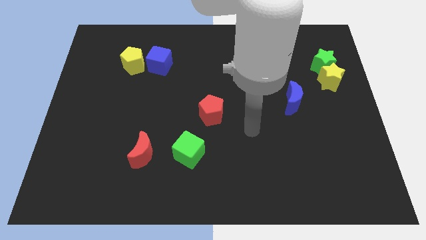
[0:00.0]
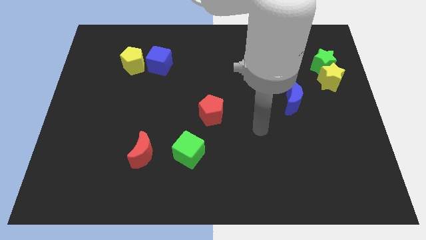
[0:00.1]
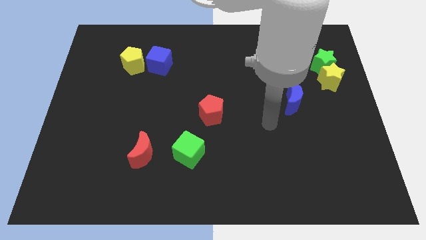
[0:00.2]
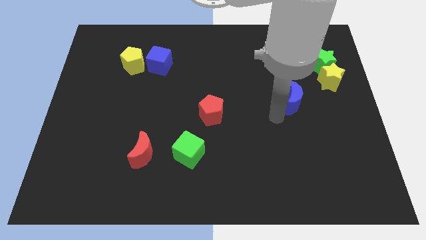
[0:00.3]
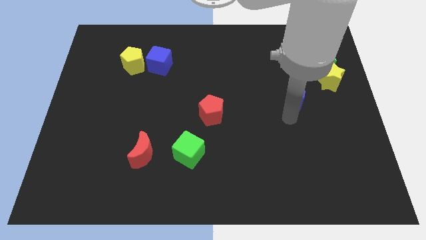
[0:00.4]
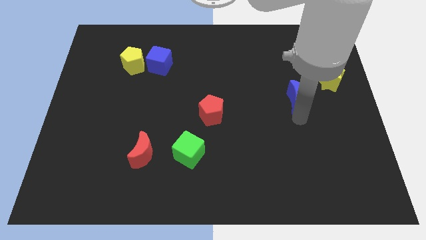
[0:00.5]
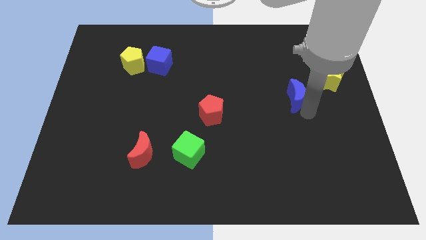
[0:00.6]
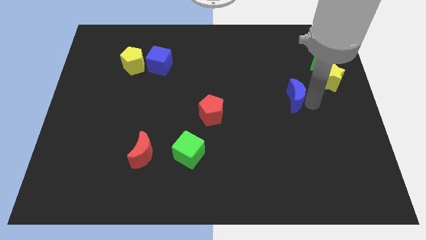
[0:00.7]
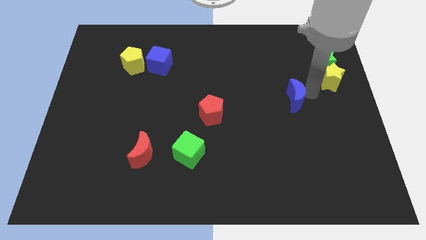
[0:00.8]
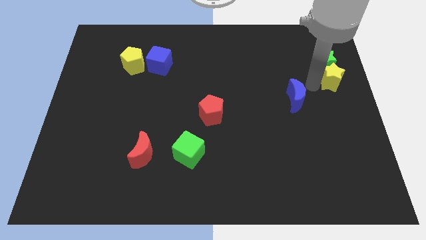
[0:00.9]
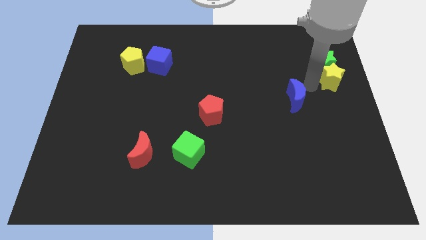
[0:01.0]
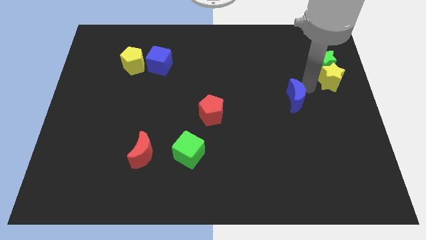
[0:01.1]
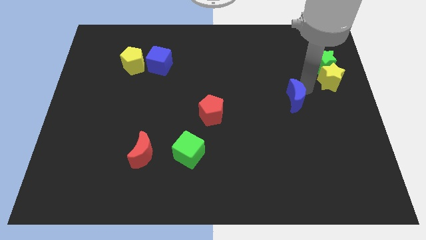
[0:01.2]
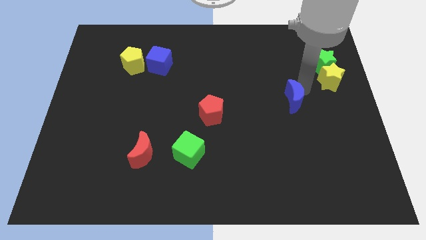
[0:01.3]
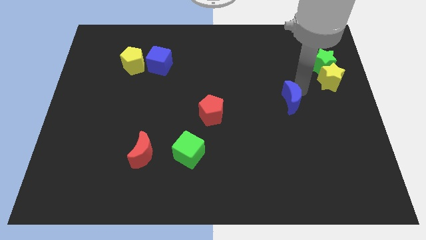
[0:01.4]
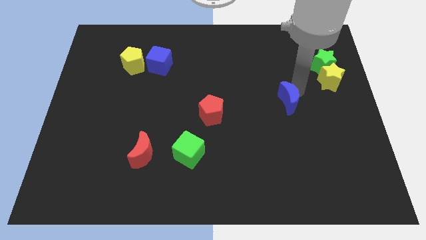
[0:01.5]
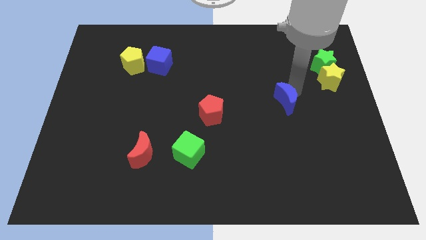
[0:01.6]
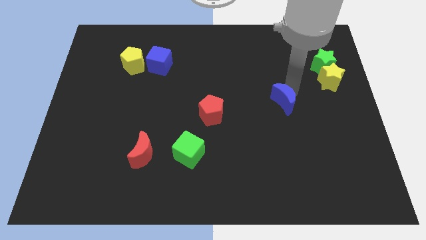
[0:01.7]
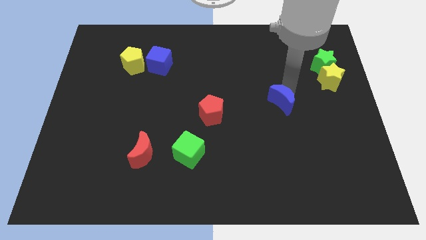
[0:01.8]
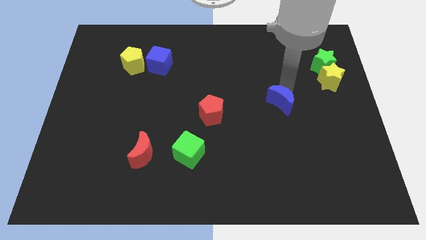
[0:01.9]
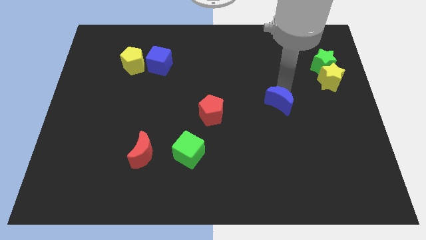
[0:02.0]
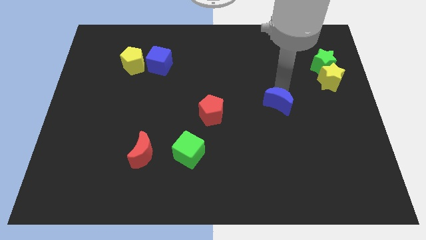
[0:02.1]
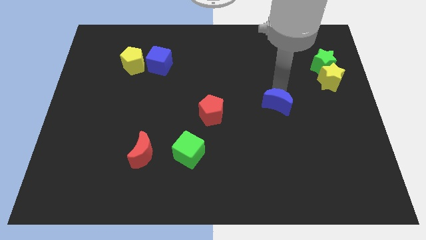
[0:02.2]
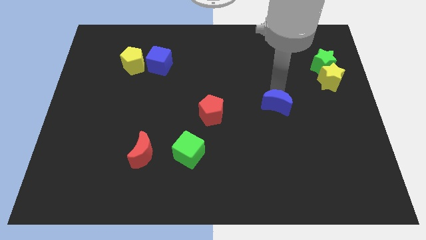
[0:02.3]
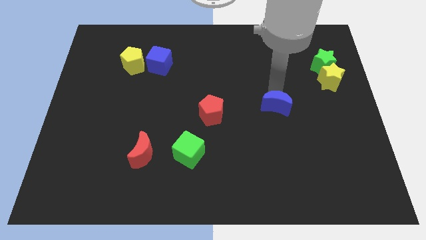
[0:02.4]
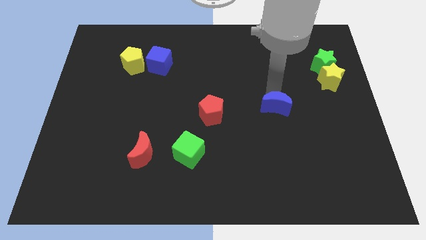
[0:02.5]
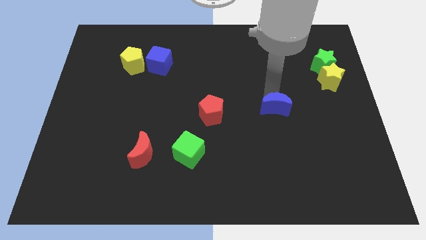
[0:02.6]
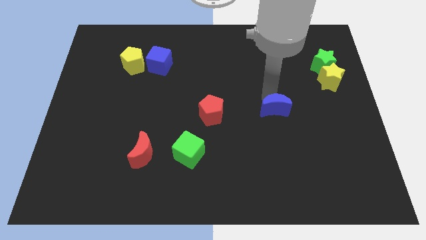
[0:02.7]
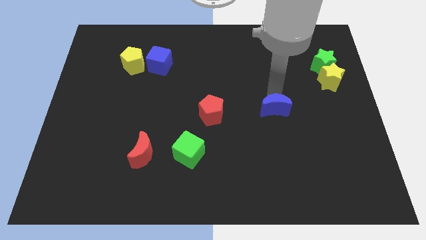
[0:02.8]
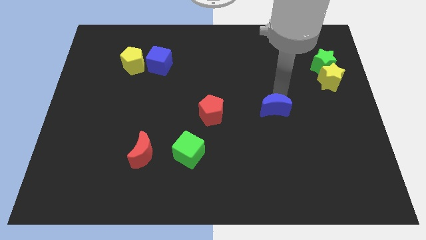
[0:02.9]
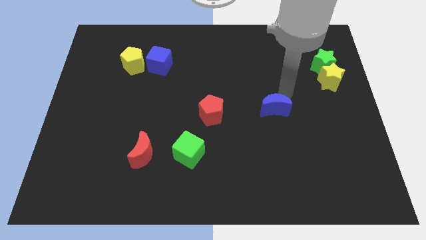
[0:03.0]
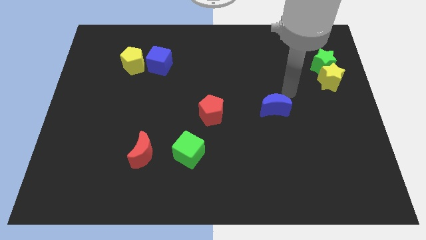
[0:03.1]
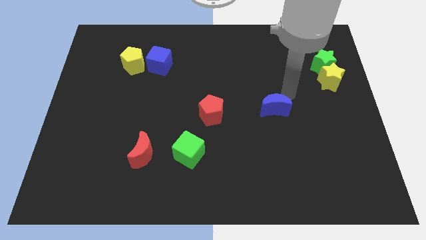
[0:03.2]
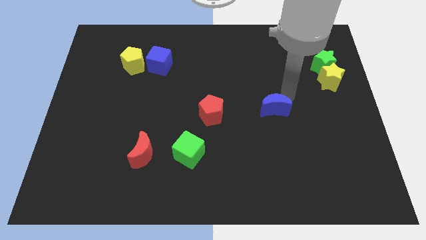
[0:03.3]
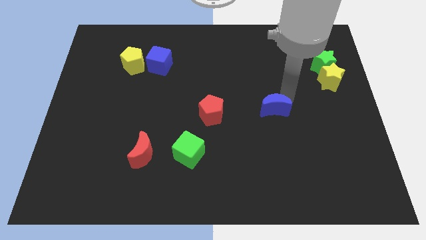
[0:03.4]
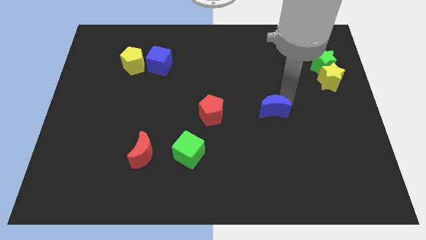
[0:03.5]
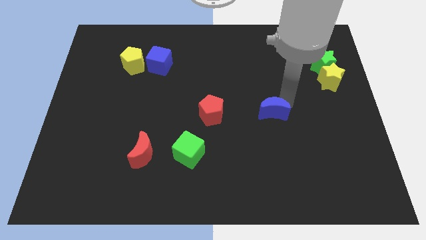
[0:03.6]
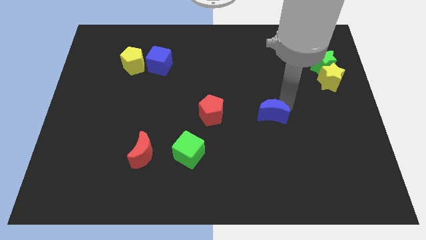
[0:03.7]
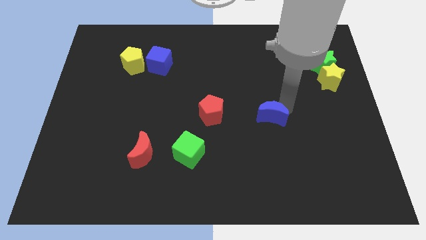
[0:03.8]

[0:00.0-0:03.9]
move the blue moon a little downwards and then left

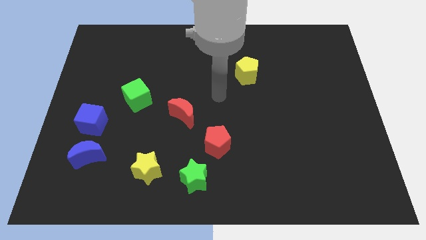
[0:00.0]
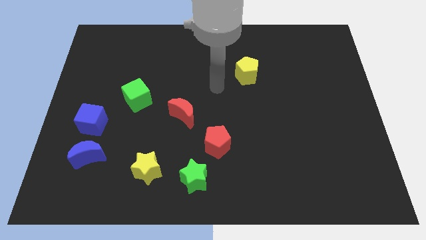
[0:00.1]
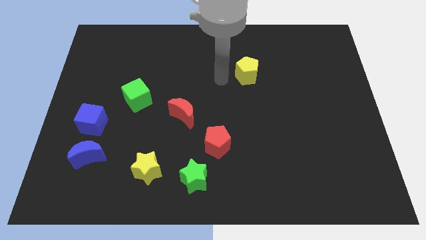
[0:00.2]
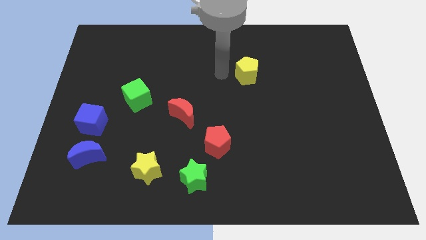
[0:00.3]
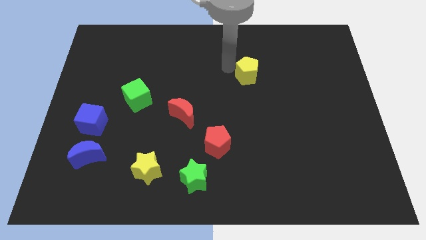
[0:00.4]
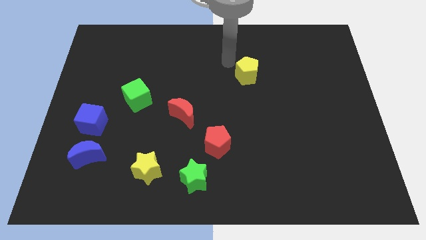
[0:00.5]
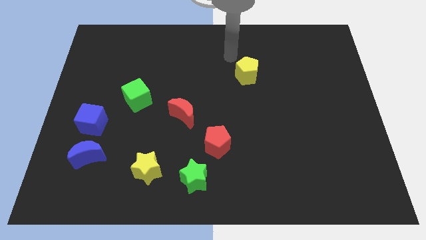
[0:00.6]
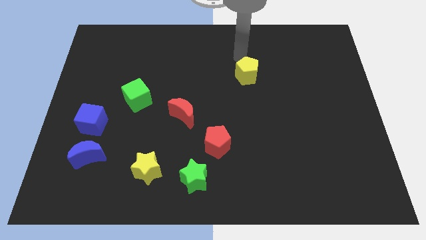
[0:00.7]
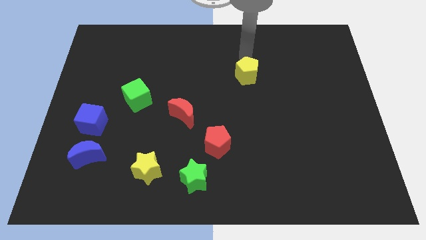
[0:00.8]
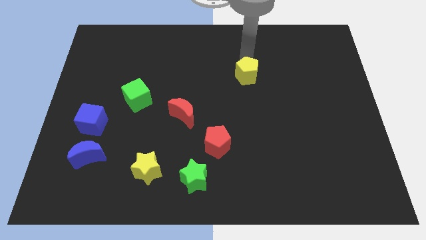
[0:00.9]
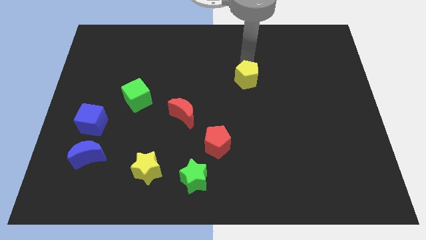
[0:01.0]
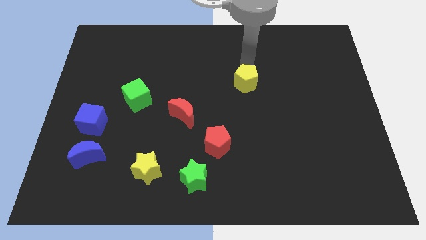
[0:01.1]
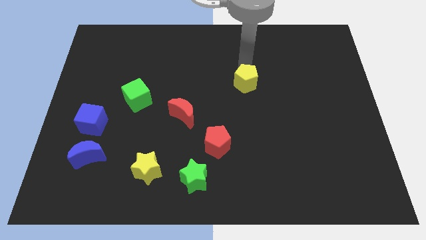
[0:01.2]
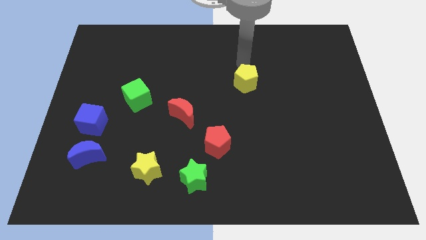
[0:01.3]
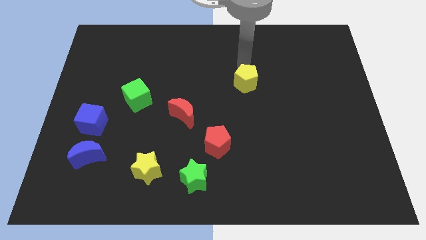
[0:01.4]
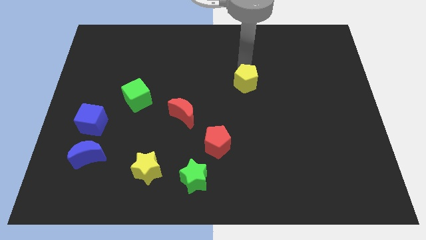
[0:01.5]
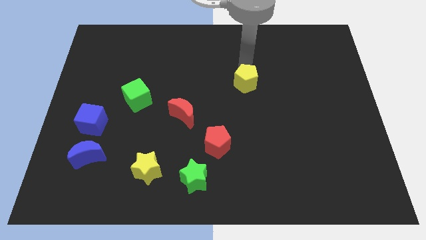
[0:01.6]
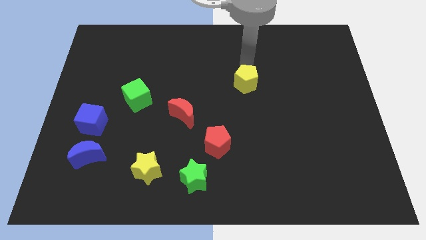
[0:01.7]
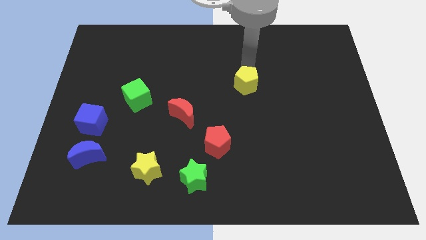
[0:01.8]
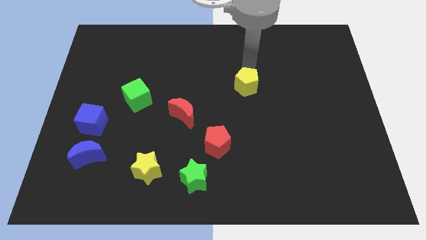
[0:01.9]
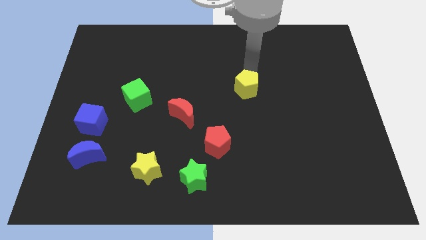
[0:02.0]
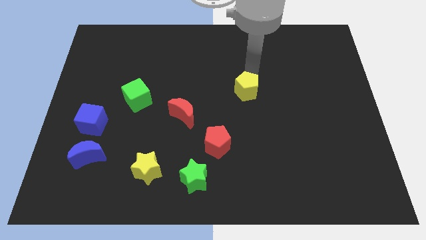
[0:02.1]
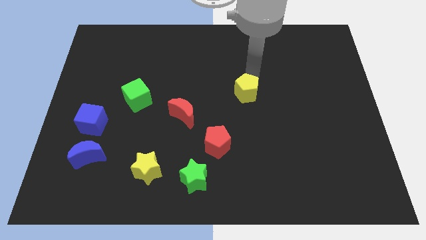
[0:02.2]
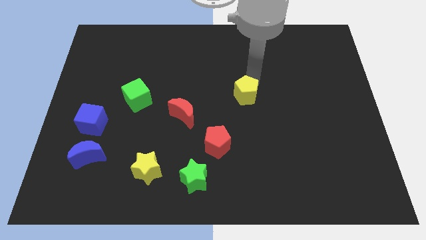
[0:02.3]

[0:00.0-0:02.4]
slide the yellow pentagon downwards a bit

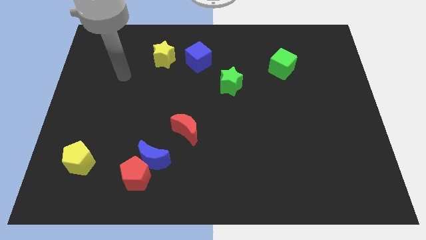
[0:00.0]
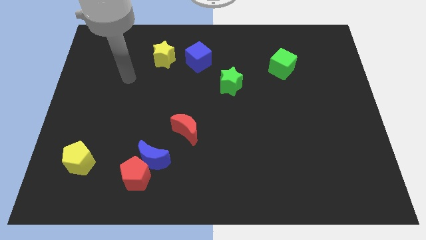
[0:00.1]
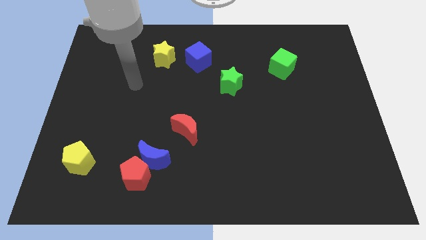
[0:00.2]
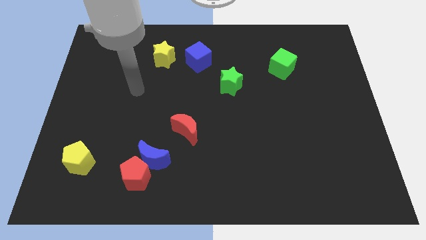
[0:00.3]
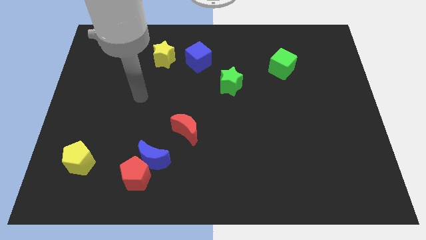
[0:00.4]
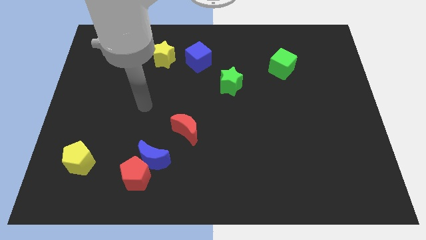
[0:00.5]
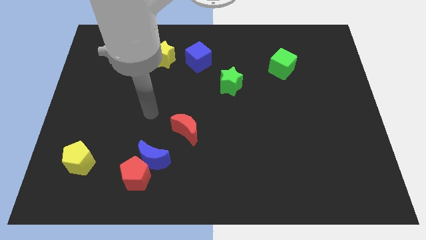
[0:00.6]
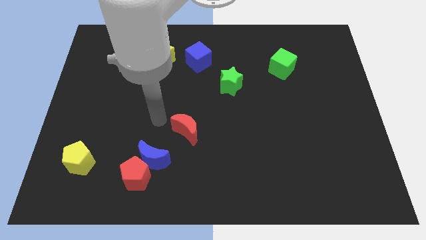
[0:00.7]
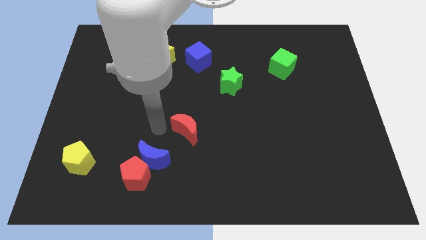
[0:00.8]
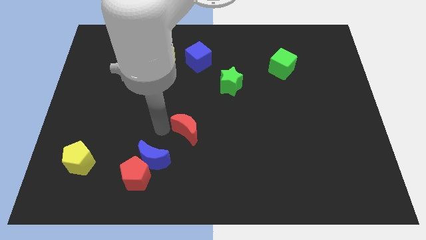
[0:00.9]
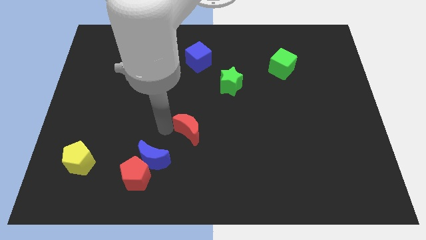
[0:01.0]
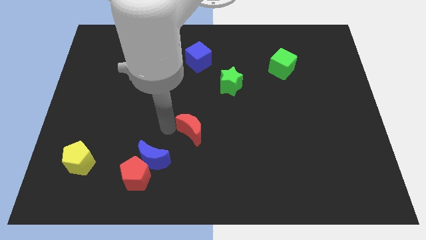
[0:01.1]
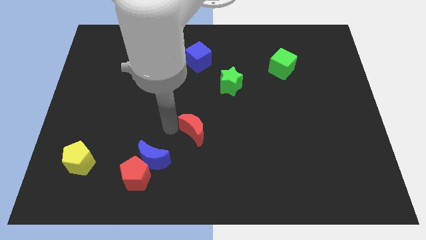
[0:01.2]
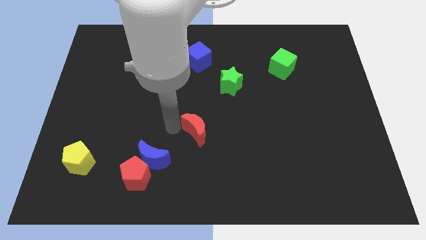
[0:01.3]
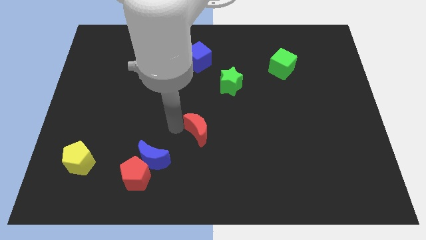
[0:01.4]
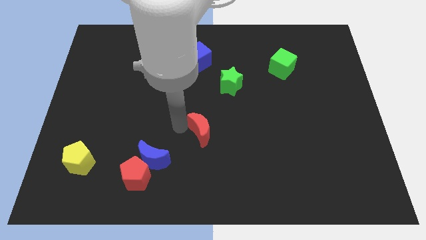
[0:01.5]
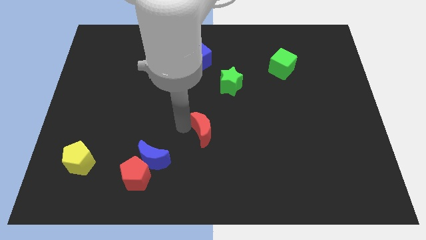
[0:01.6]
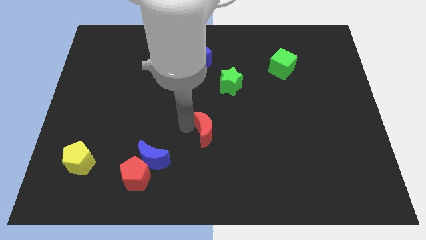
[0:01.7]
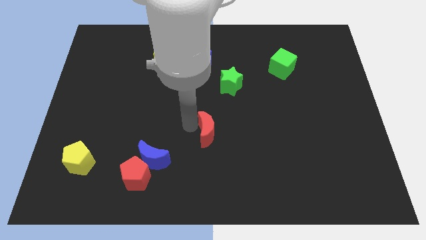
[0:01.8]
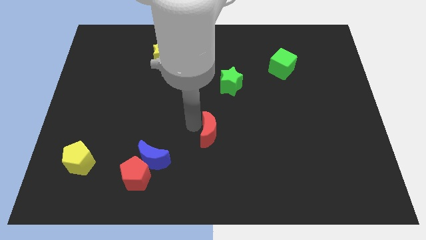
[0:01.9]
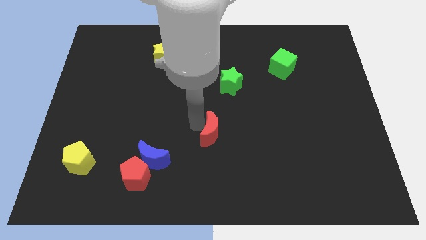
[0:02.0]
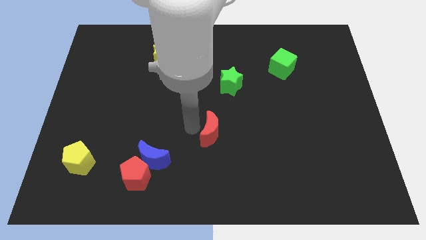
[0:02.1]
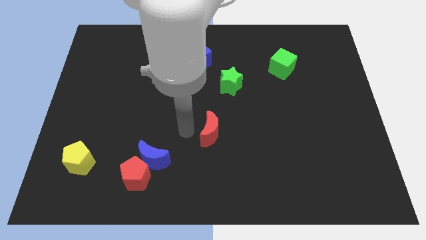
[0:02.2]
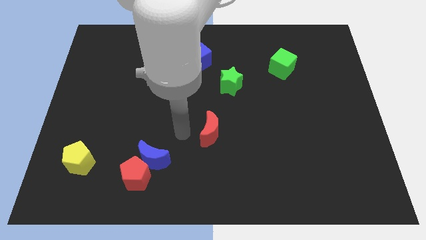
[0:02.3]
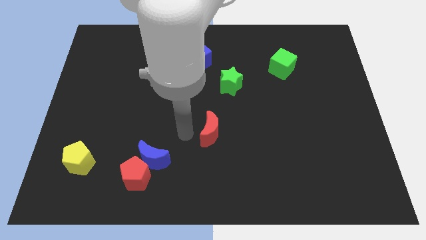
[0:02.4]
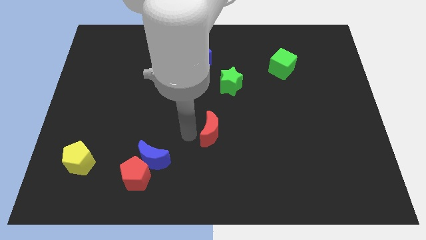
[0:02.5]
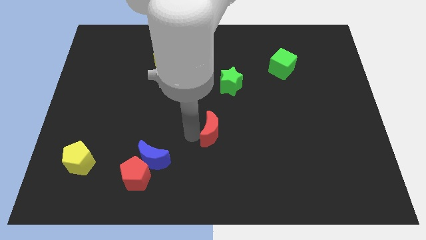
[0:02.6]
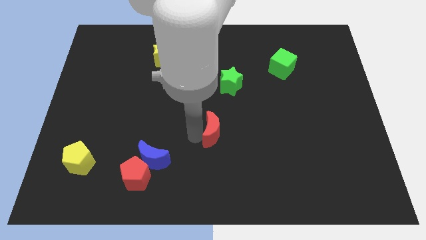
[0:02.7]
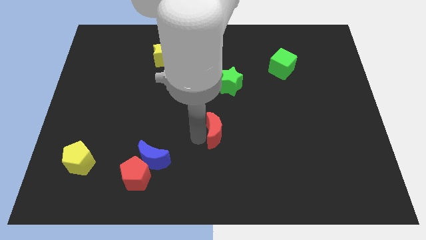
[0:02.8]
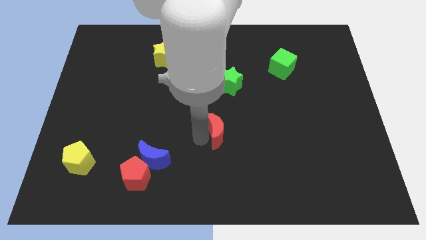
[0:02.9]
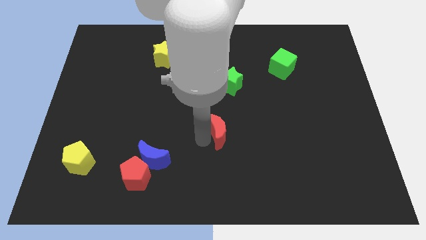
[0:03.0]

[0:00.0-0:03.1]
slightly slide the red moon right
